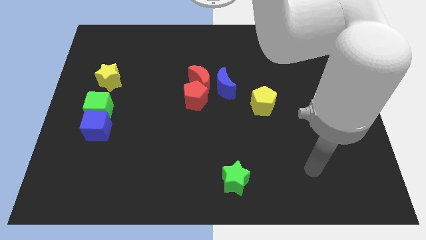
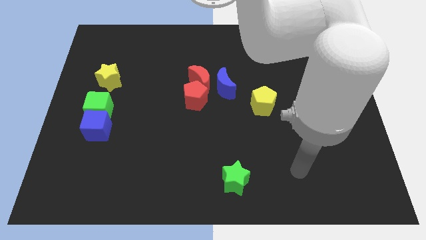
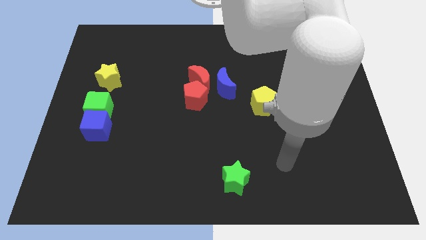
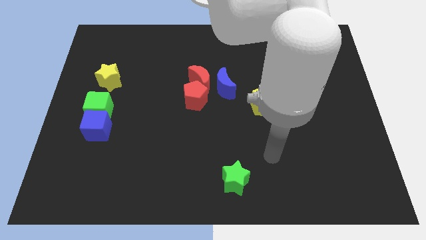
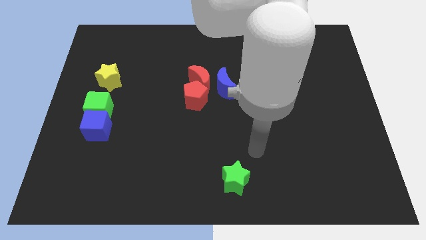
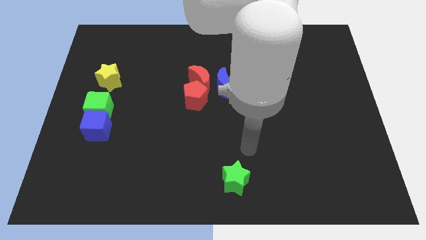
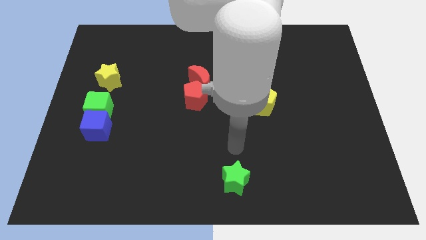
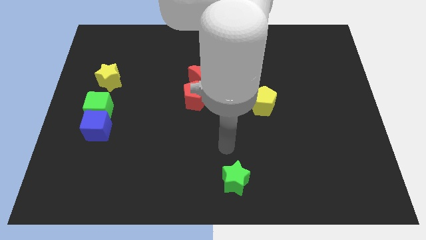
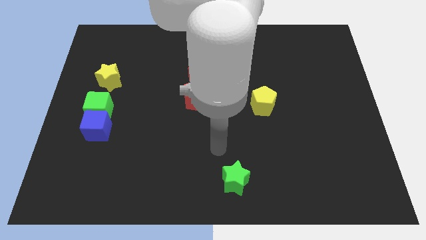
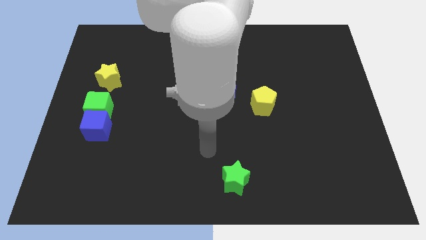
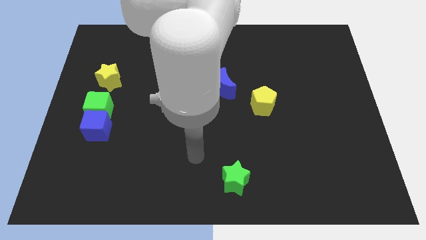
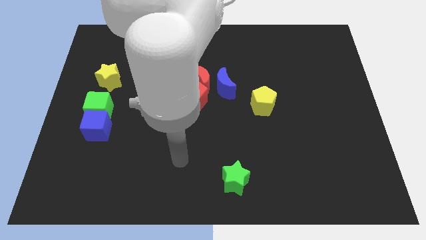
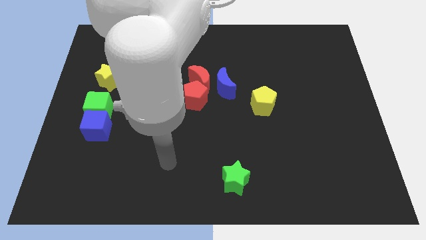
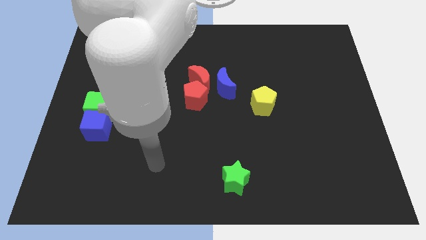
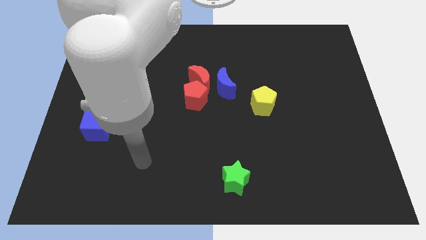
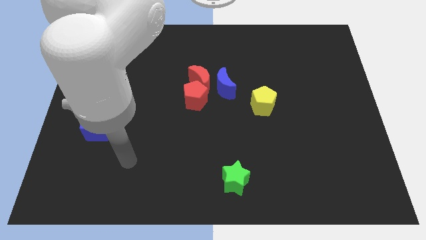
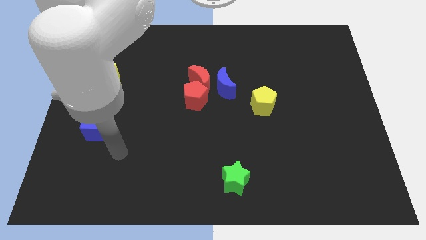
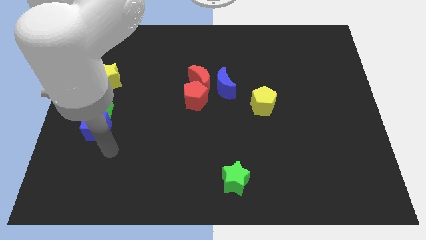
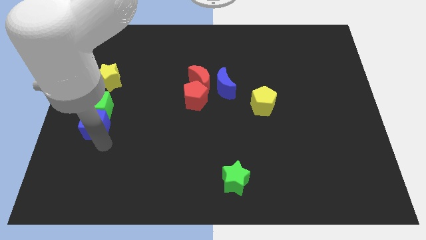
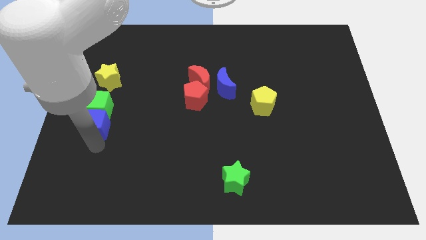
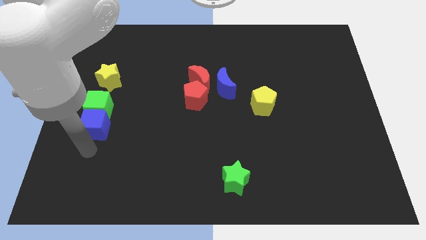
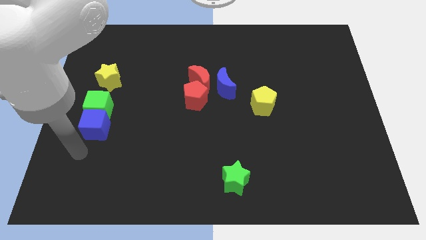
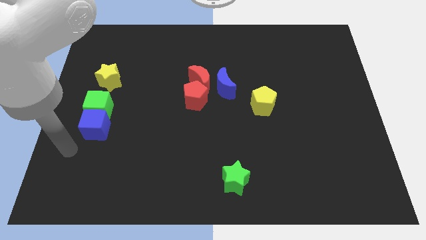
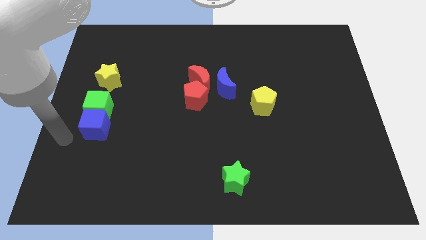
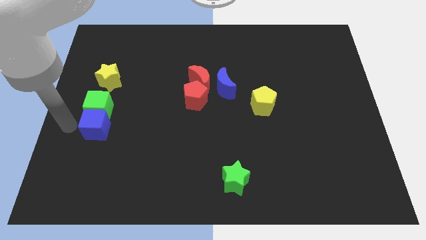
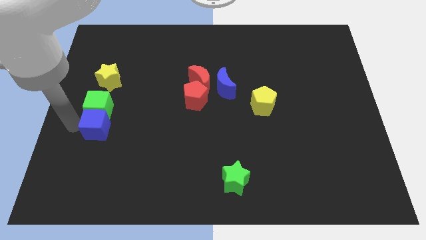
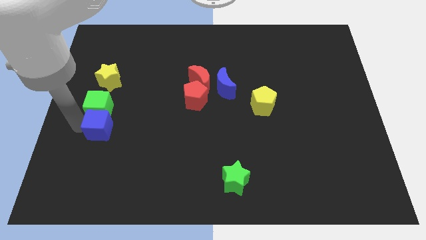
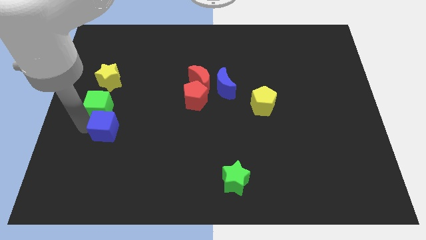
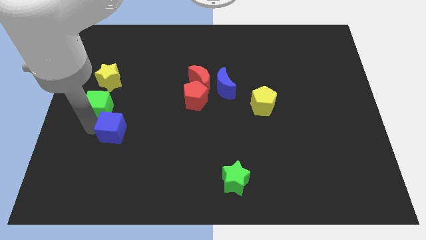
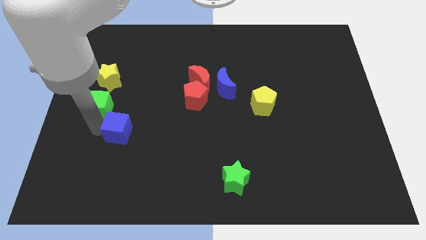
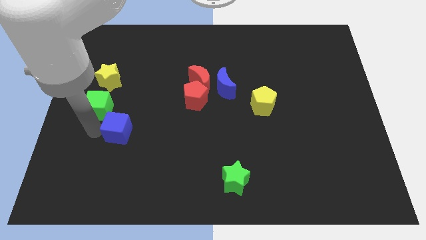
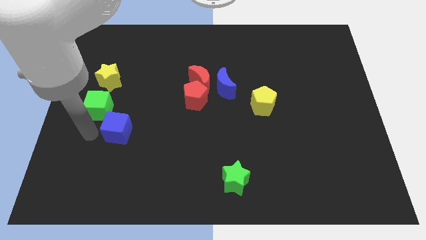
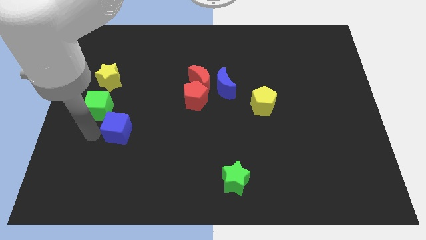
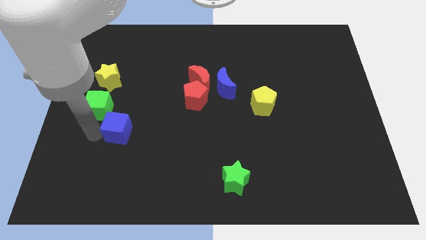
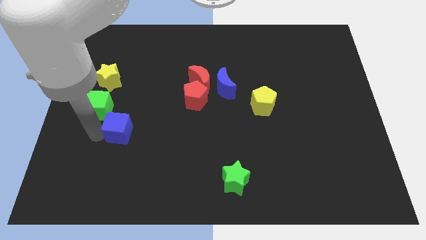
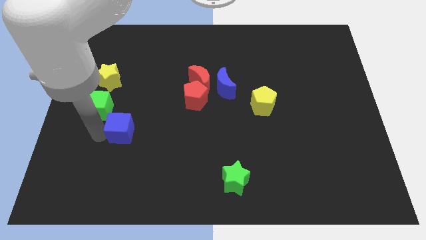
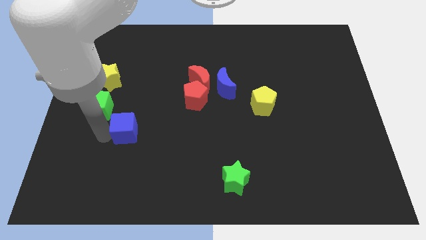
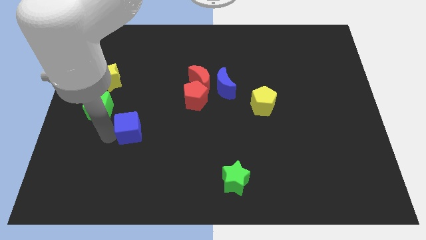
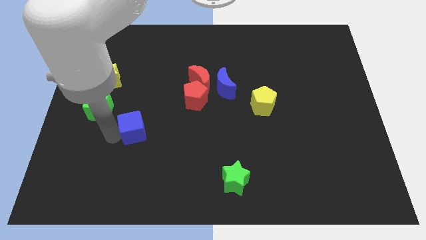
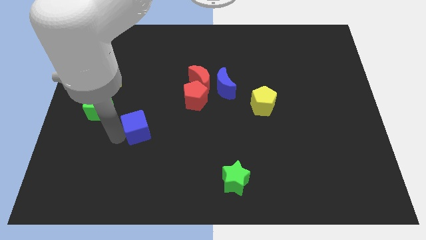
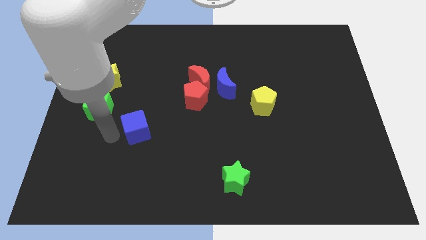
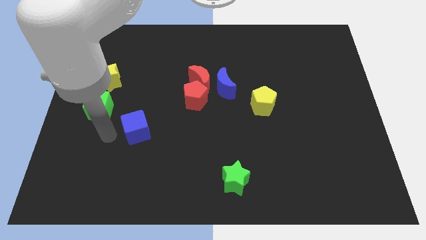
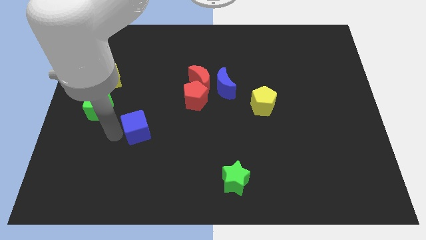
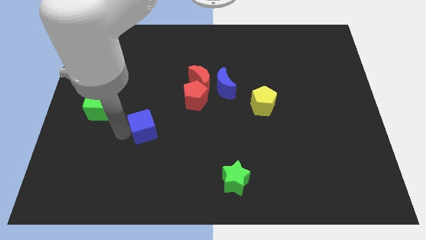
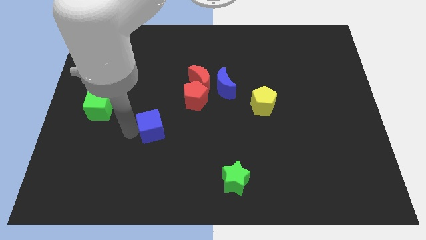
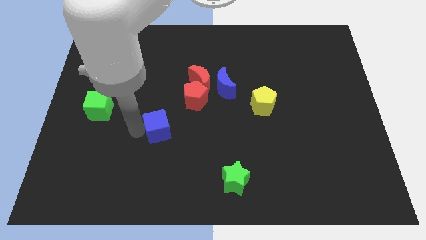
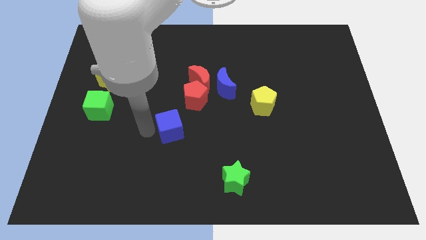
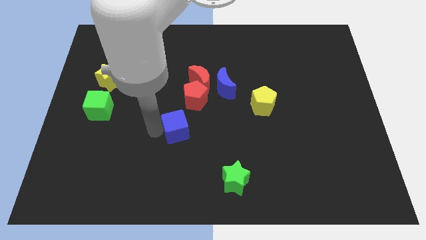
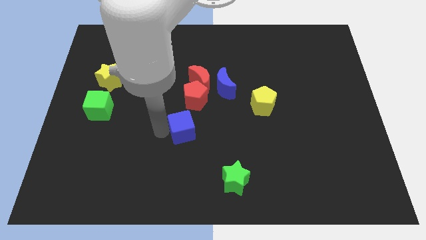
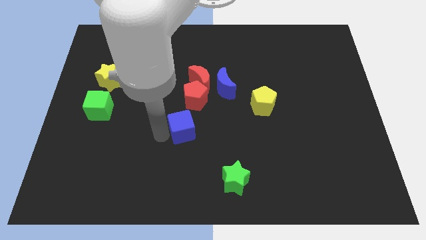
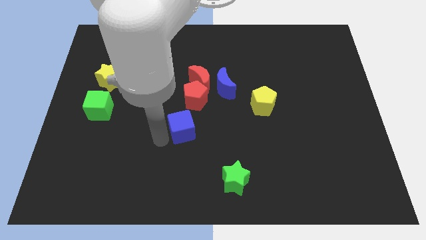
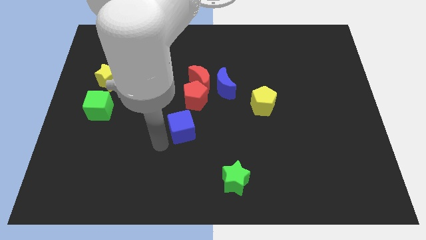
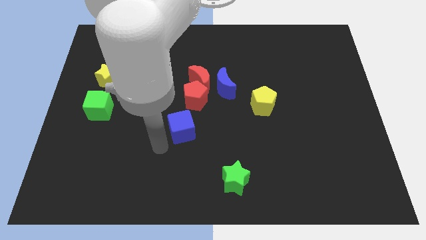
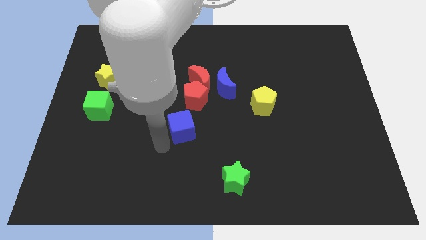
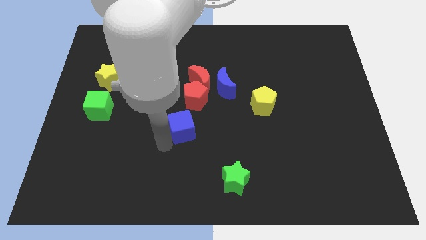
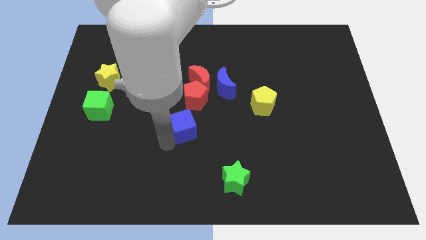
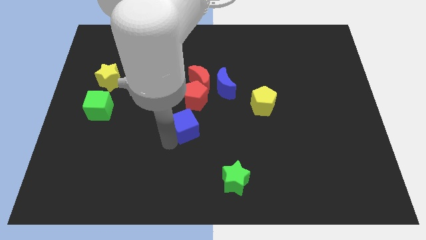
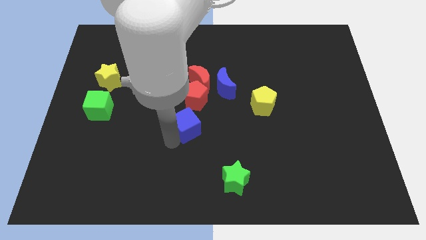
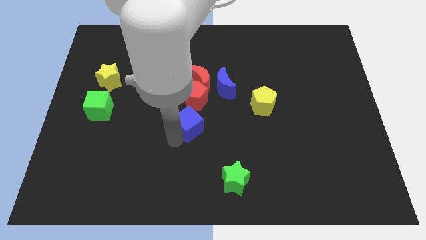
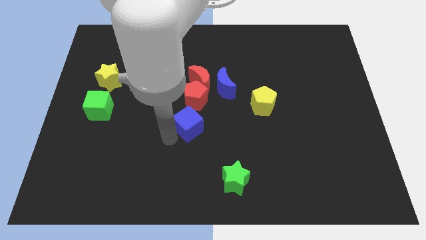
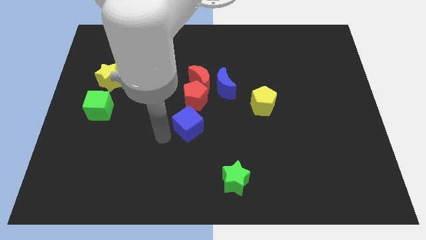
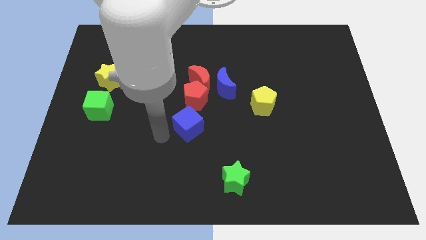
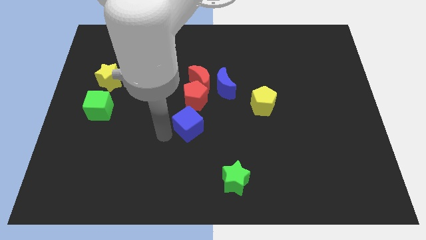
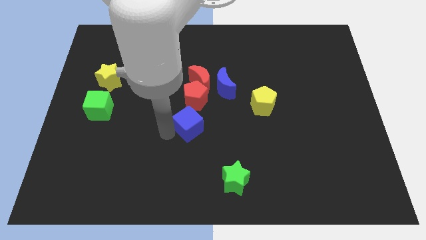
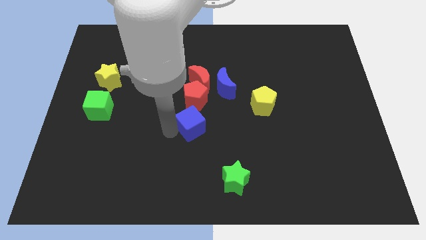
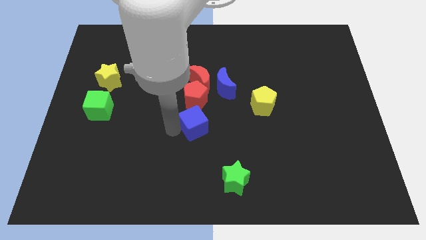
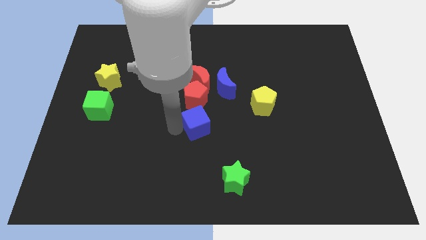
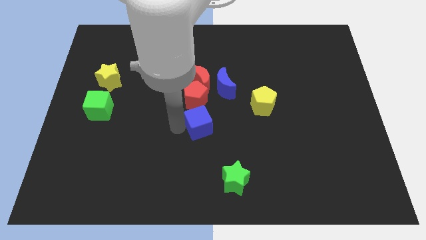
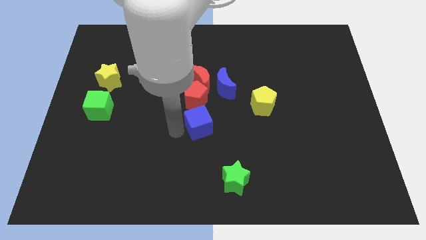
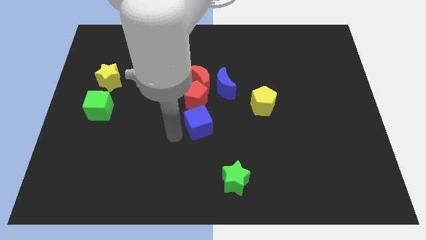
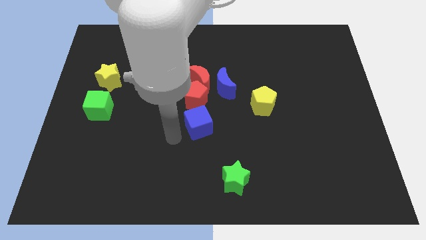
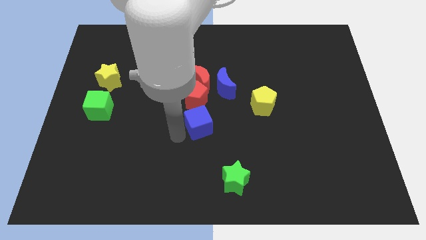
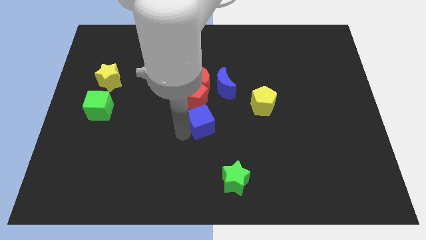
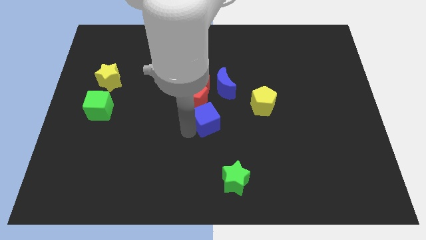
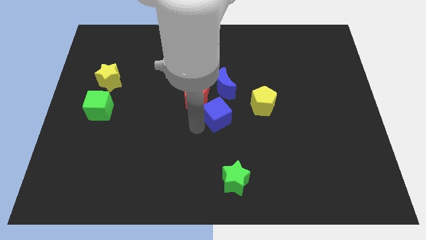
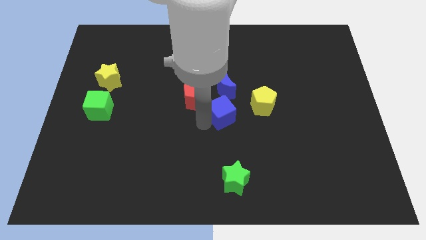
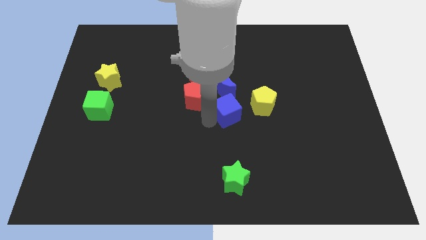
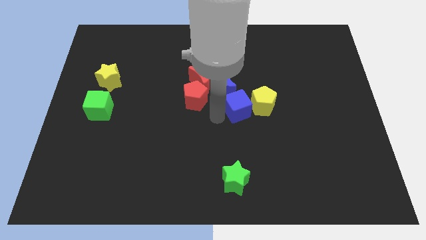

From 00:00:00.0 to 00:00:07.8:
put the blue cube next to the yellow pentagon
